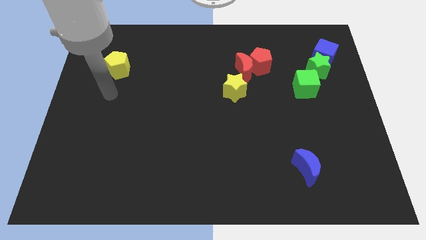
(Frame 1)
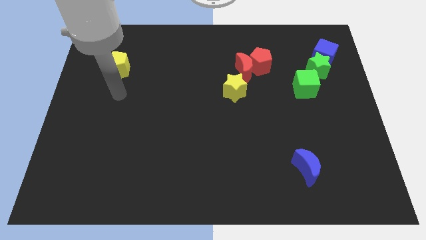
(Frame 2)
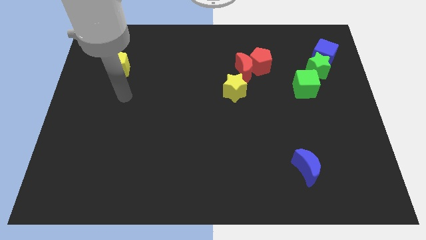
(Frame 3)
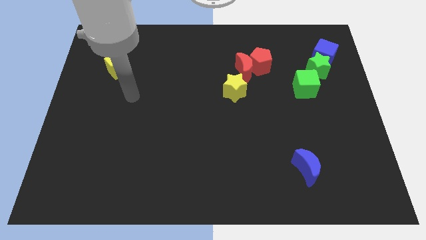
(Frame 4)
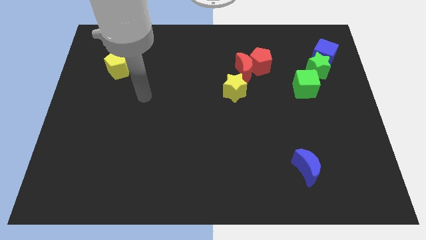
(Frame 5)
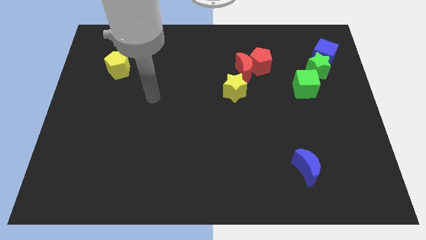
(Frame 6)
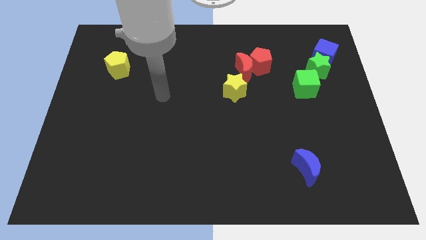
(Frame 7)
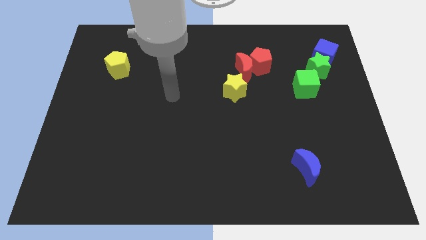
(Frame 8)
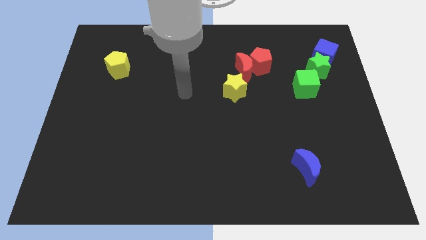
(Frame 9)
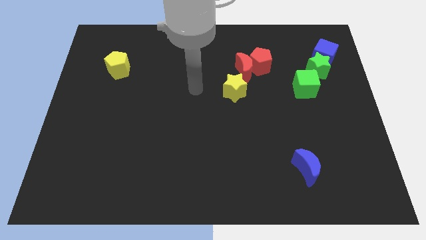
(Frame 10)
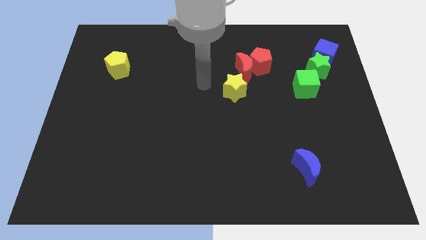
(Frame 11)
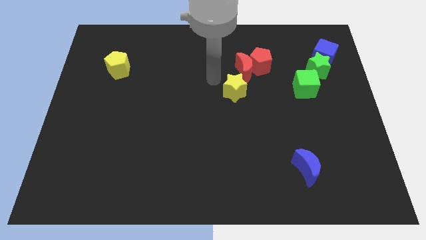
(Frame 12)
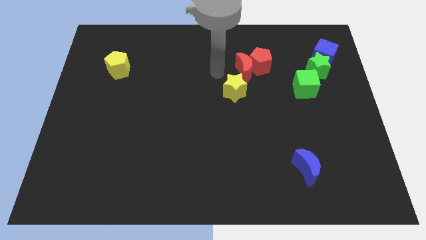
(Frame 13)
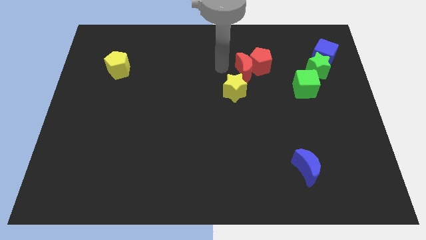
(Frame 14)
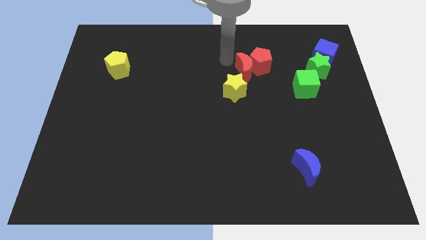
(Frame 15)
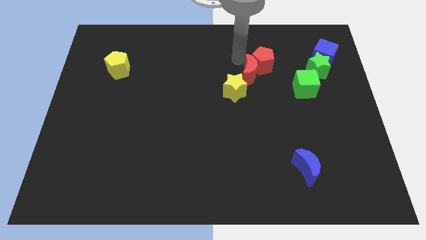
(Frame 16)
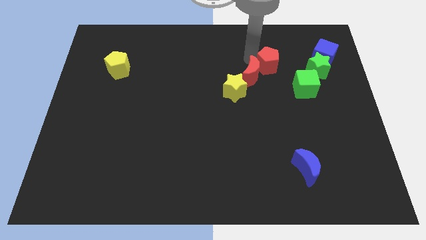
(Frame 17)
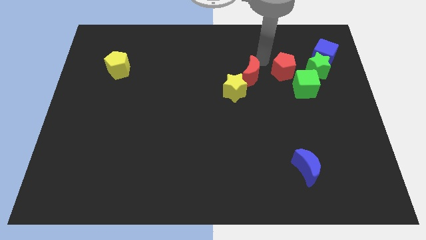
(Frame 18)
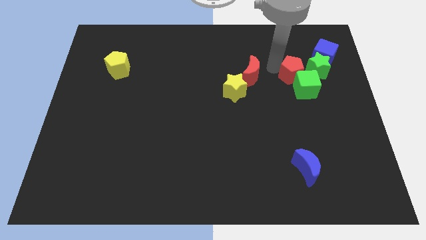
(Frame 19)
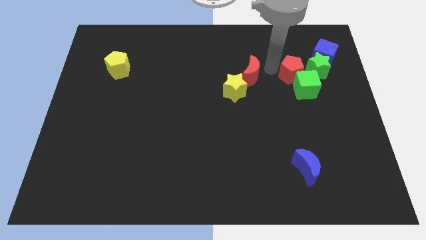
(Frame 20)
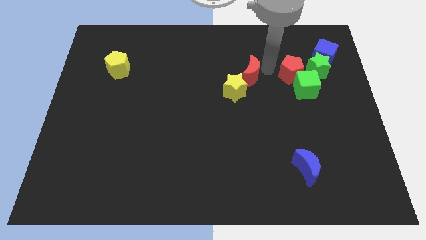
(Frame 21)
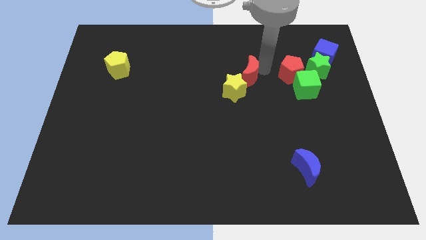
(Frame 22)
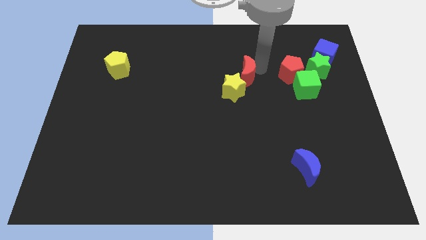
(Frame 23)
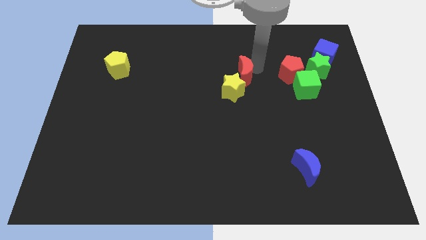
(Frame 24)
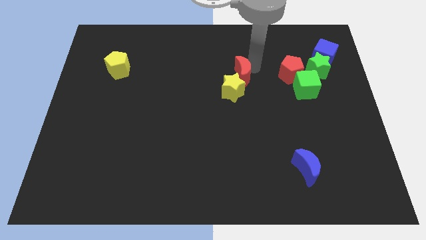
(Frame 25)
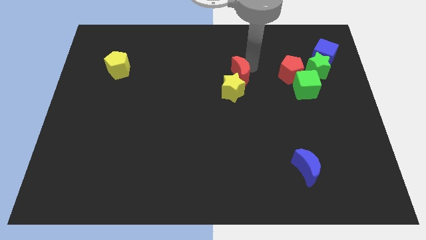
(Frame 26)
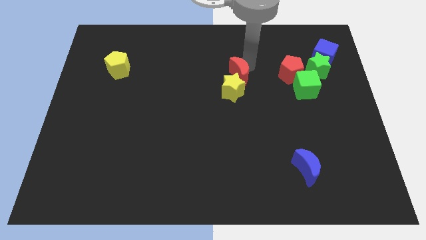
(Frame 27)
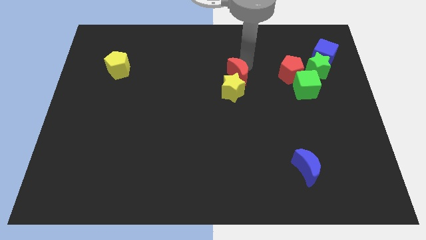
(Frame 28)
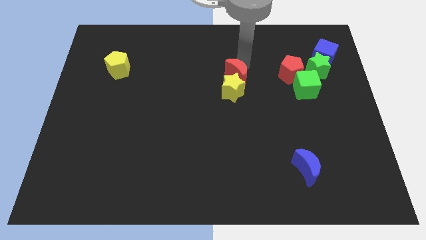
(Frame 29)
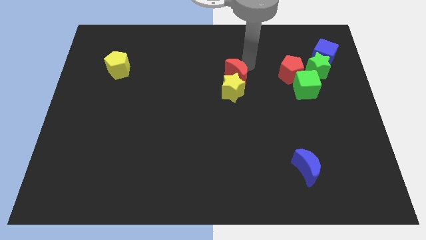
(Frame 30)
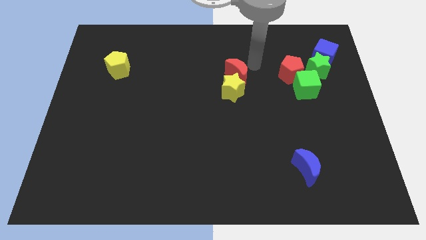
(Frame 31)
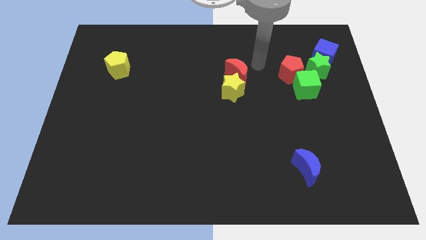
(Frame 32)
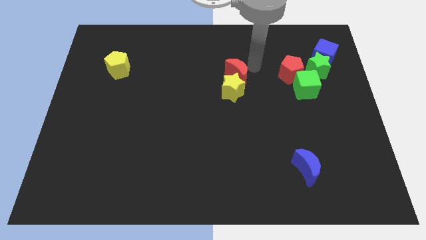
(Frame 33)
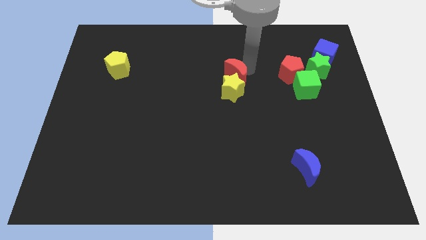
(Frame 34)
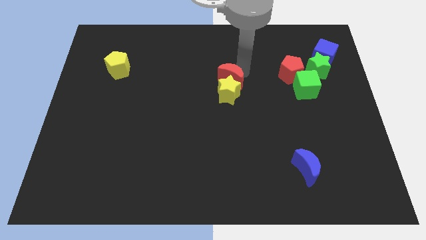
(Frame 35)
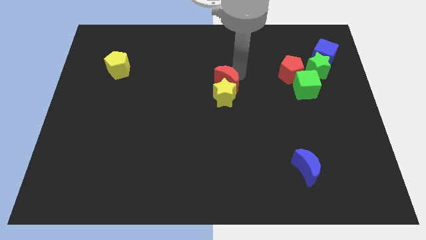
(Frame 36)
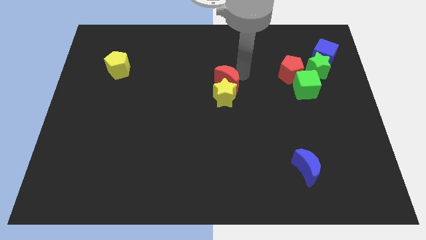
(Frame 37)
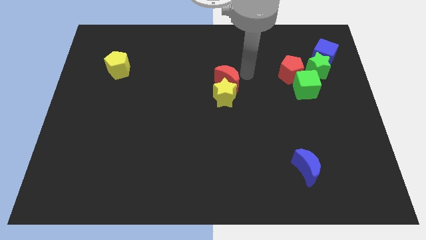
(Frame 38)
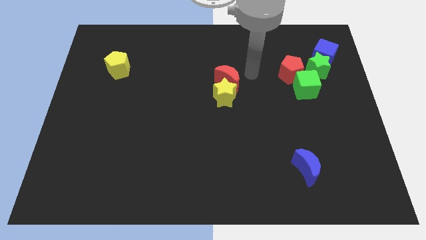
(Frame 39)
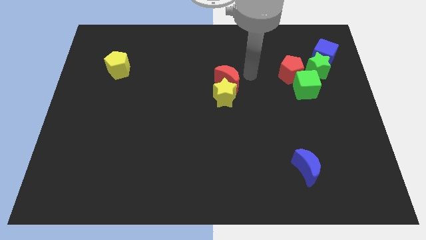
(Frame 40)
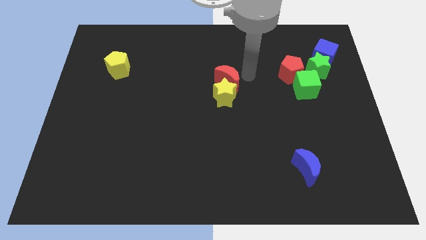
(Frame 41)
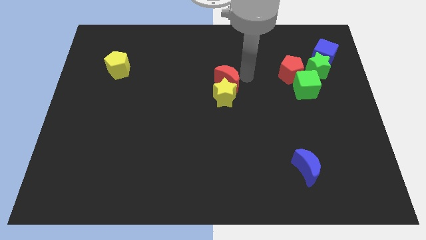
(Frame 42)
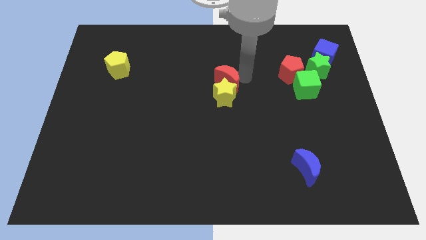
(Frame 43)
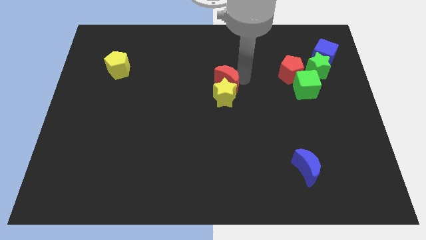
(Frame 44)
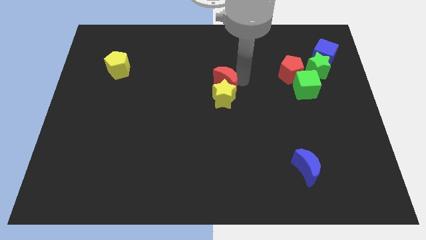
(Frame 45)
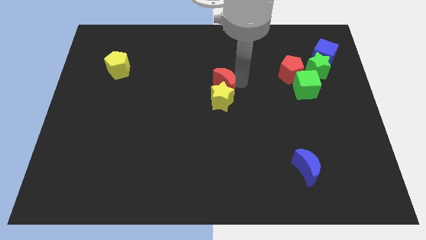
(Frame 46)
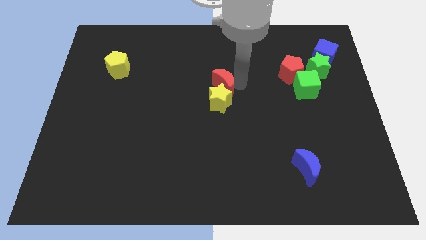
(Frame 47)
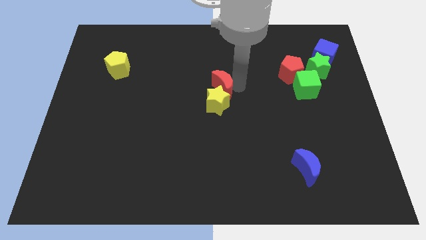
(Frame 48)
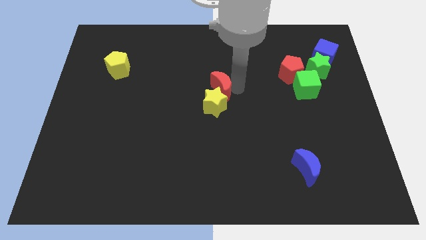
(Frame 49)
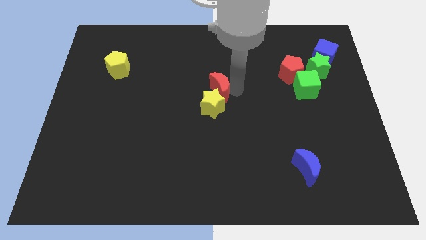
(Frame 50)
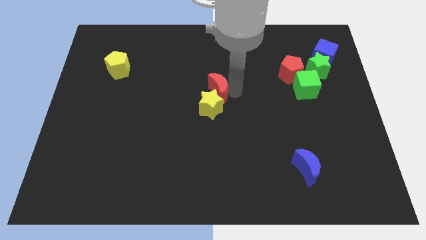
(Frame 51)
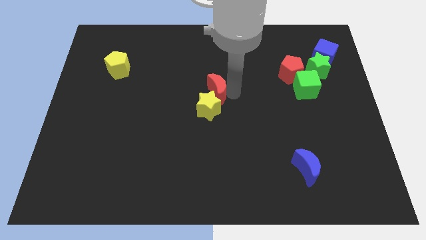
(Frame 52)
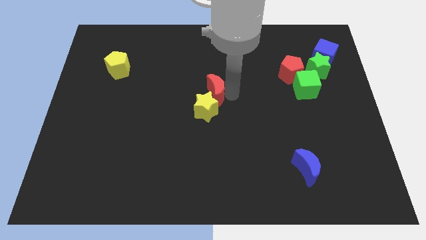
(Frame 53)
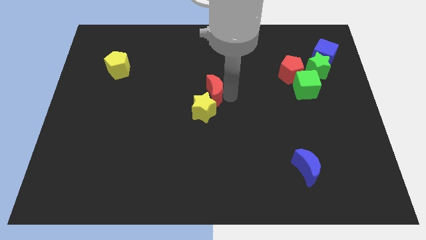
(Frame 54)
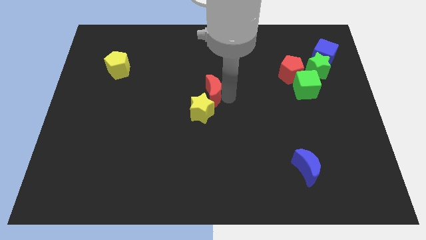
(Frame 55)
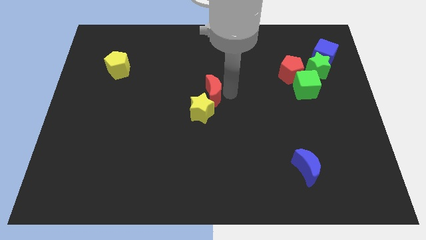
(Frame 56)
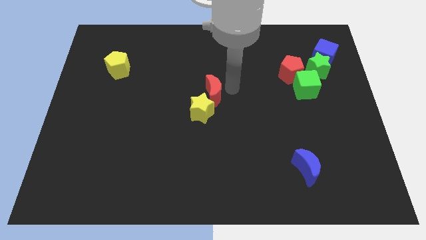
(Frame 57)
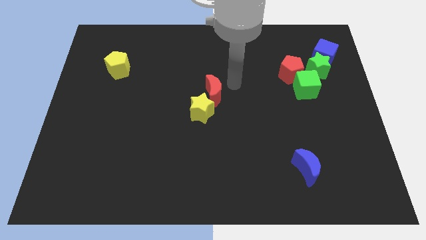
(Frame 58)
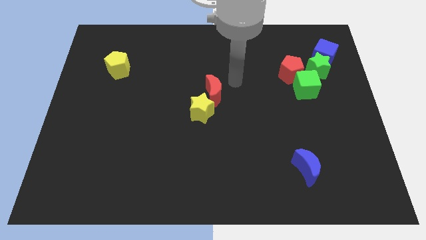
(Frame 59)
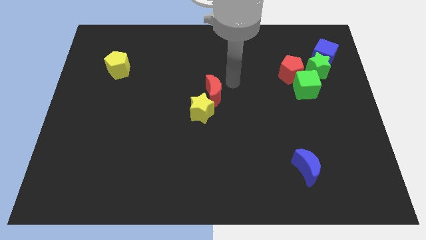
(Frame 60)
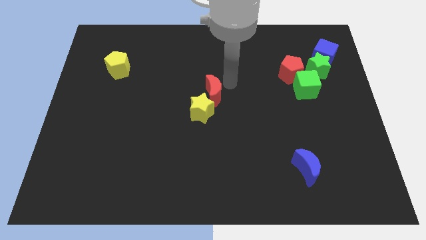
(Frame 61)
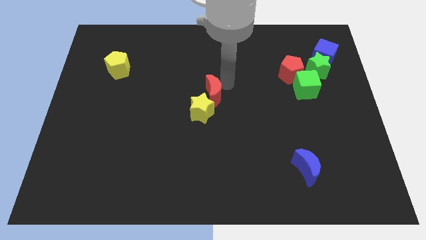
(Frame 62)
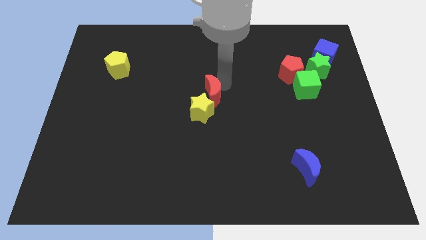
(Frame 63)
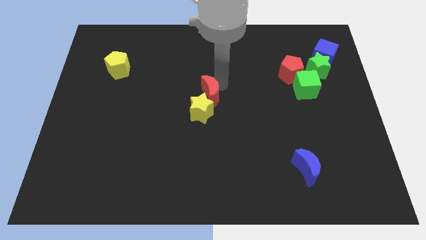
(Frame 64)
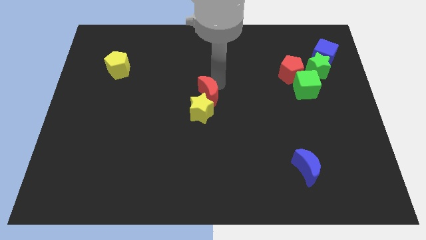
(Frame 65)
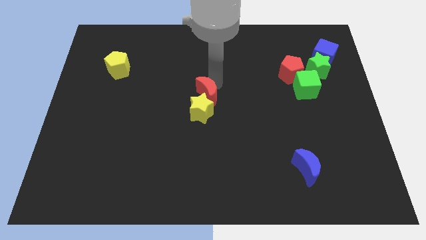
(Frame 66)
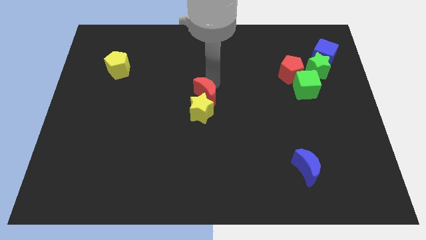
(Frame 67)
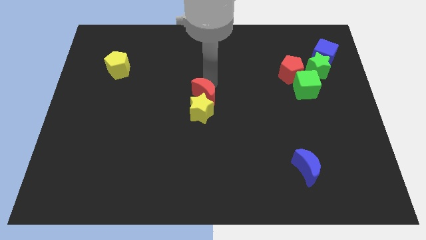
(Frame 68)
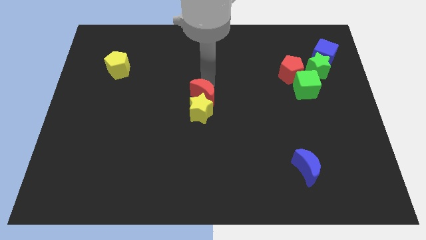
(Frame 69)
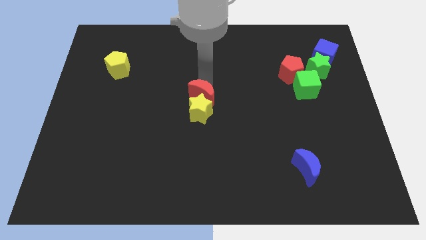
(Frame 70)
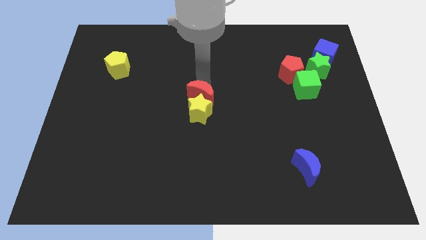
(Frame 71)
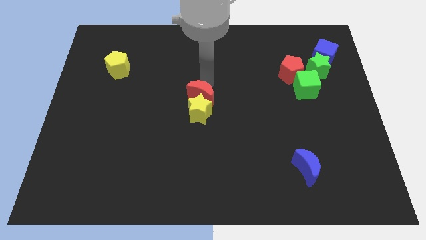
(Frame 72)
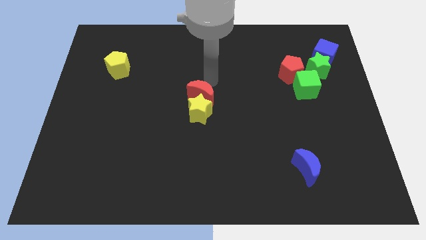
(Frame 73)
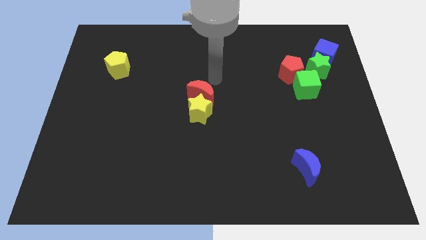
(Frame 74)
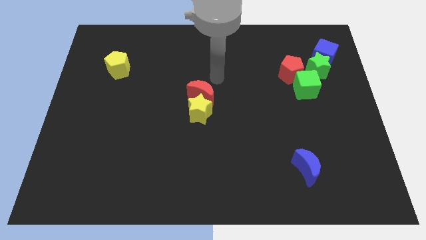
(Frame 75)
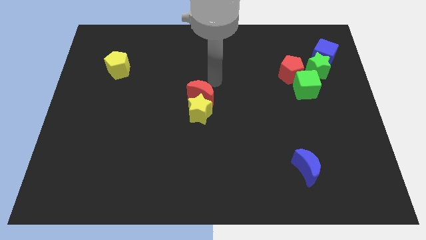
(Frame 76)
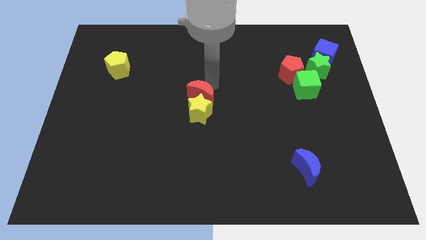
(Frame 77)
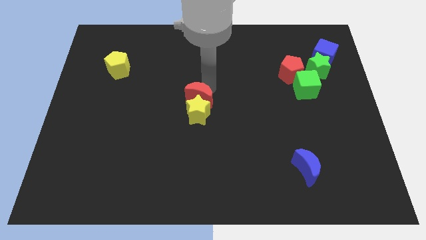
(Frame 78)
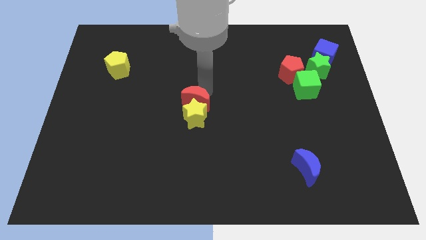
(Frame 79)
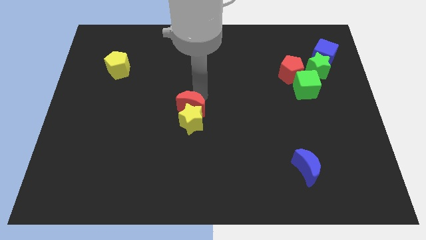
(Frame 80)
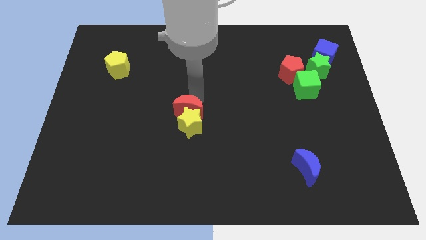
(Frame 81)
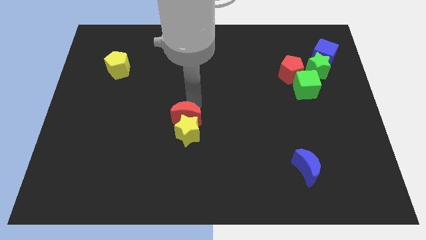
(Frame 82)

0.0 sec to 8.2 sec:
push the red moon down and to the left

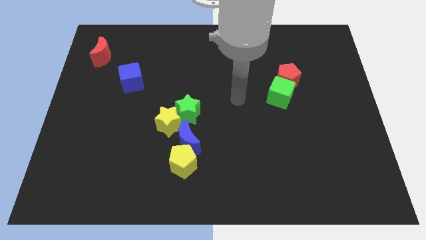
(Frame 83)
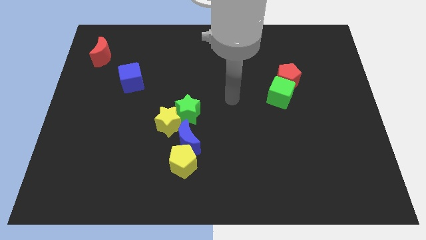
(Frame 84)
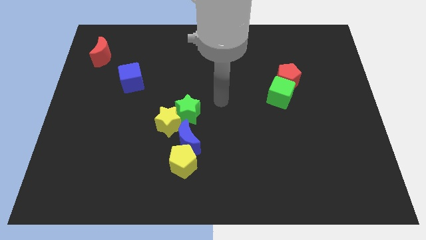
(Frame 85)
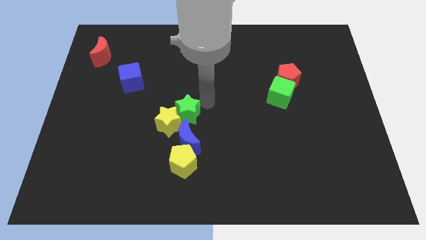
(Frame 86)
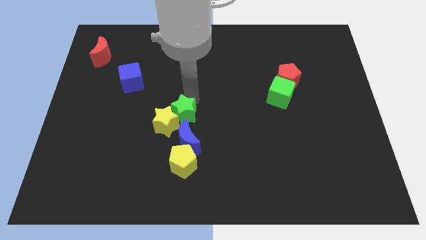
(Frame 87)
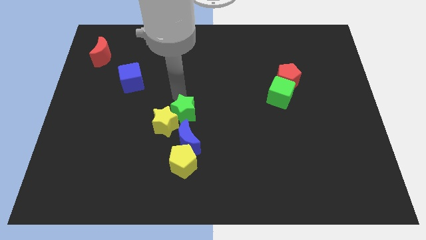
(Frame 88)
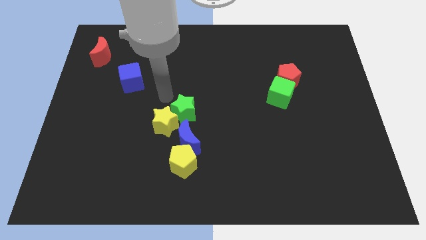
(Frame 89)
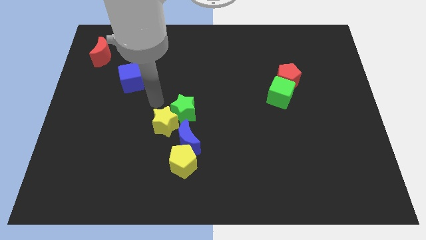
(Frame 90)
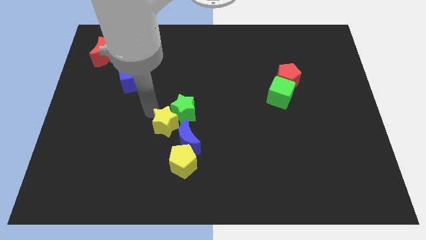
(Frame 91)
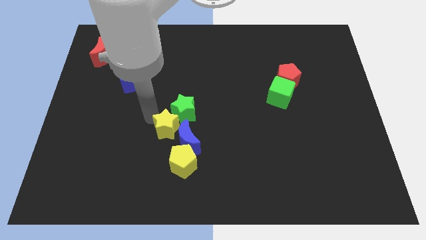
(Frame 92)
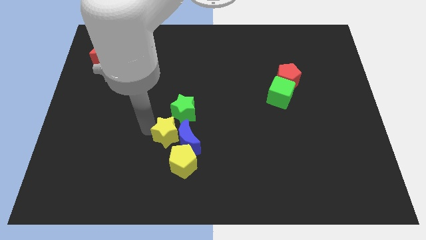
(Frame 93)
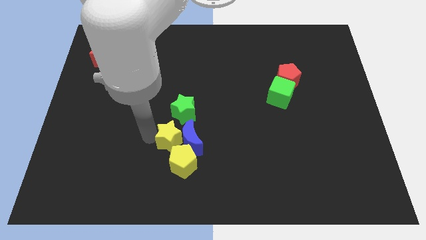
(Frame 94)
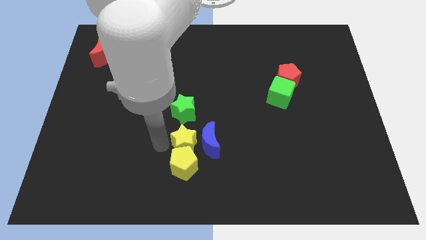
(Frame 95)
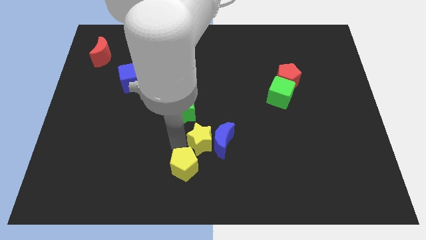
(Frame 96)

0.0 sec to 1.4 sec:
move the blue moon a little bit right
